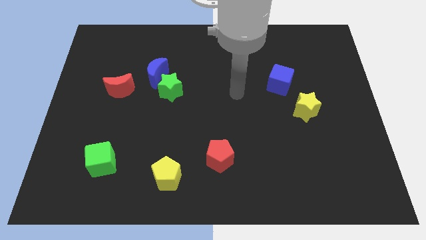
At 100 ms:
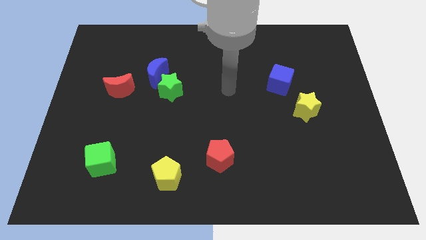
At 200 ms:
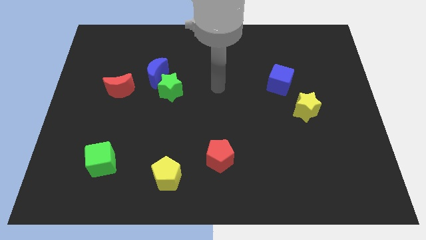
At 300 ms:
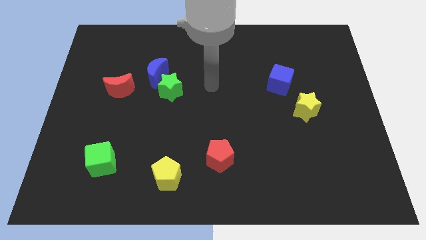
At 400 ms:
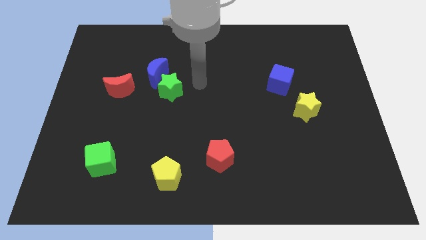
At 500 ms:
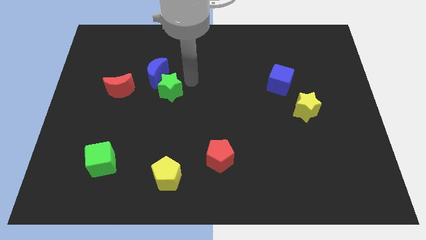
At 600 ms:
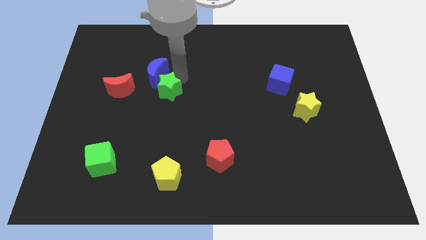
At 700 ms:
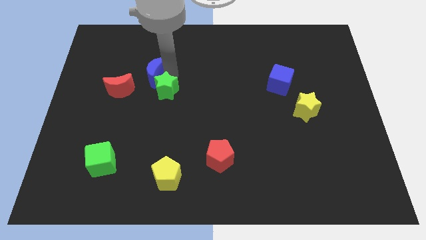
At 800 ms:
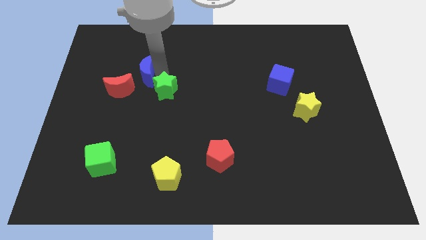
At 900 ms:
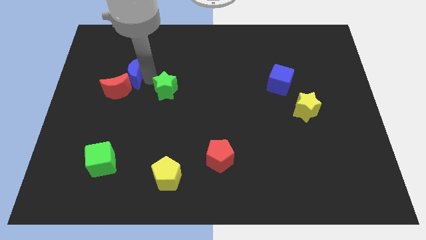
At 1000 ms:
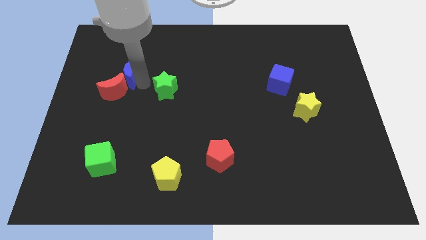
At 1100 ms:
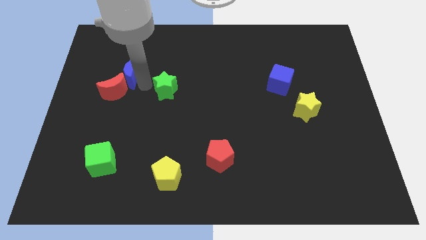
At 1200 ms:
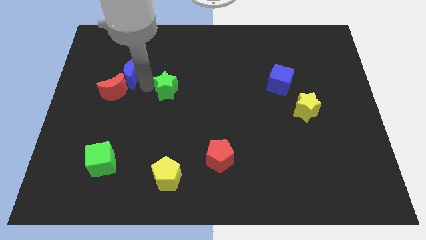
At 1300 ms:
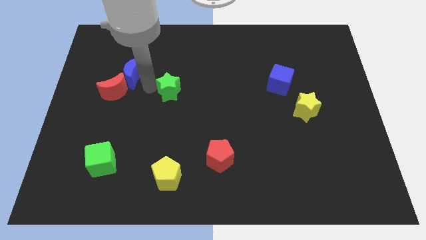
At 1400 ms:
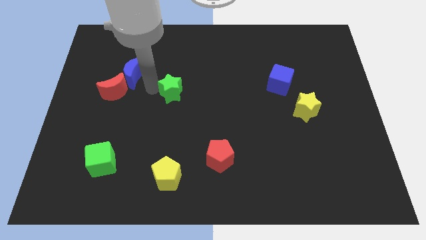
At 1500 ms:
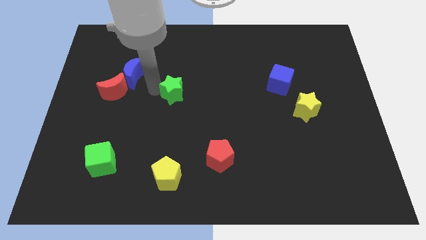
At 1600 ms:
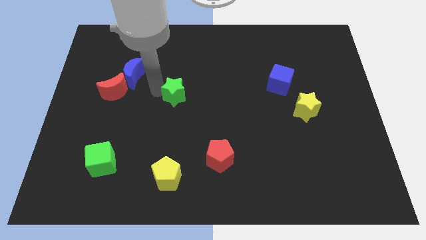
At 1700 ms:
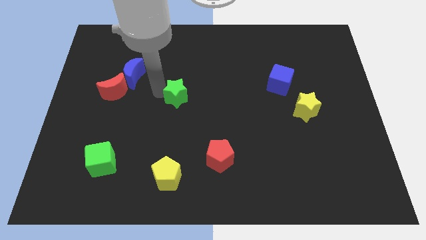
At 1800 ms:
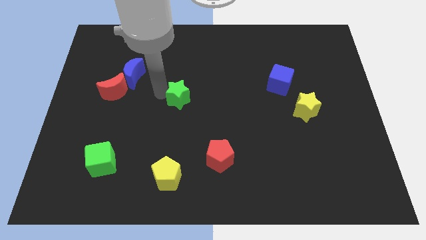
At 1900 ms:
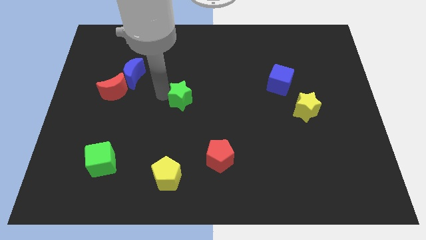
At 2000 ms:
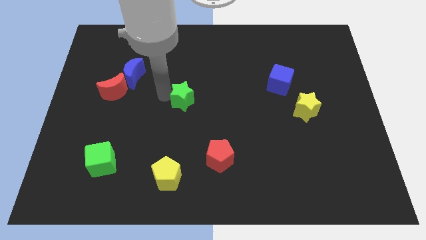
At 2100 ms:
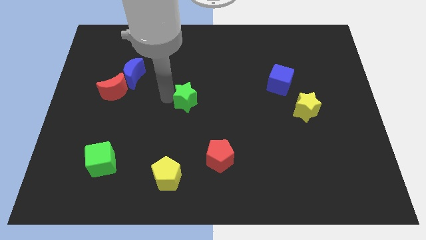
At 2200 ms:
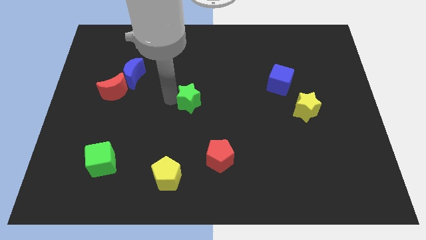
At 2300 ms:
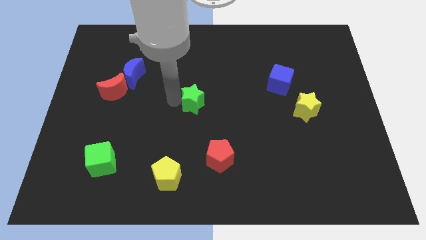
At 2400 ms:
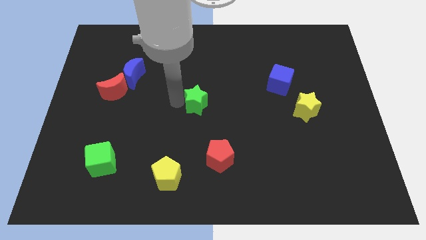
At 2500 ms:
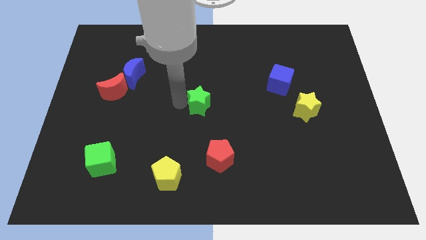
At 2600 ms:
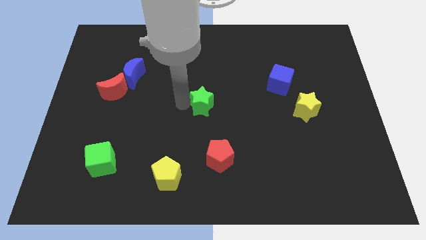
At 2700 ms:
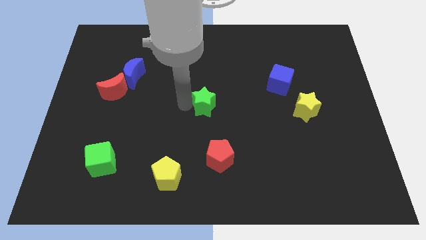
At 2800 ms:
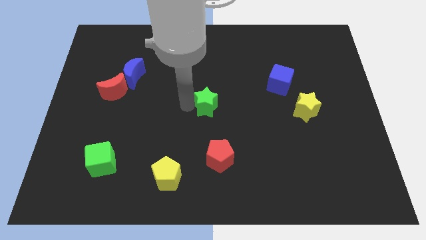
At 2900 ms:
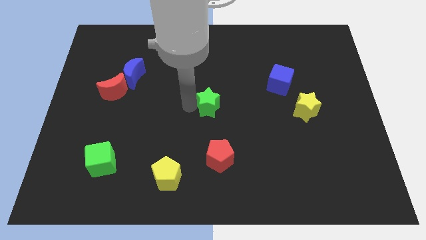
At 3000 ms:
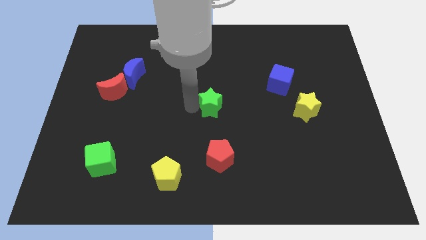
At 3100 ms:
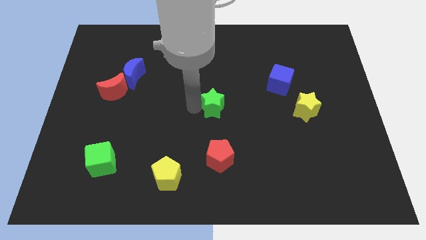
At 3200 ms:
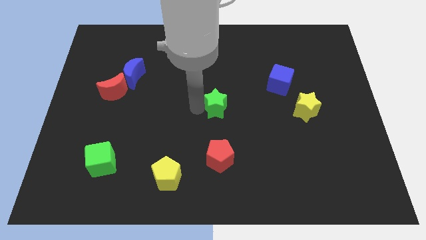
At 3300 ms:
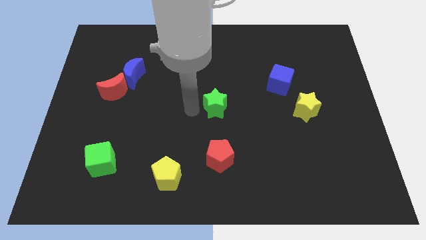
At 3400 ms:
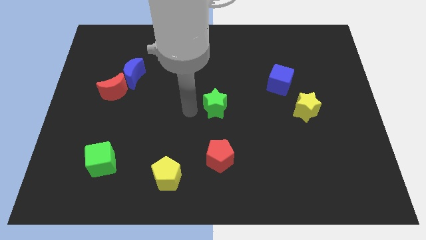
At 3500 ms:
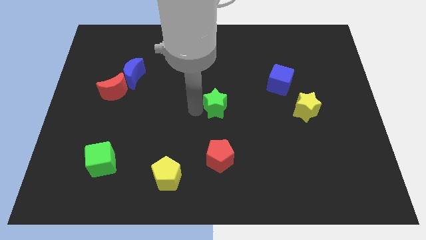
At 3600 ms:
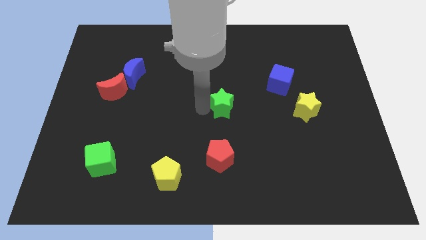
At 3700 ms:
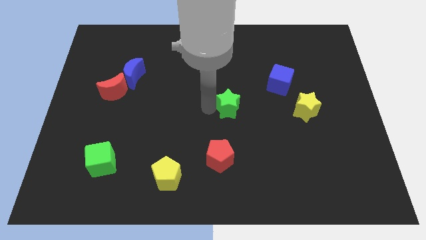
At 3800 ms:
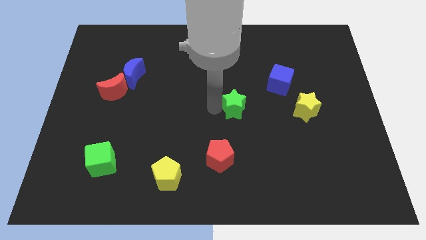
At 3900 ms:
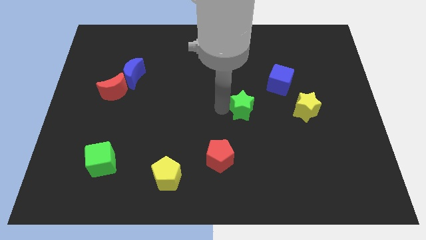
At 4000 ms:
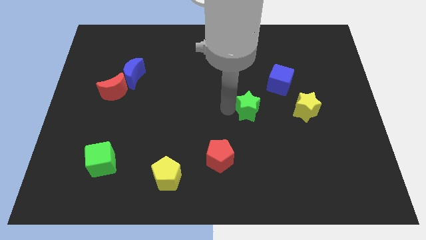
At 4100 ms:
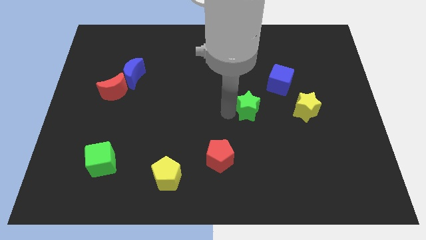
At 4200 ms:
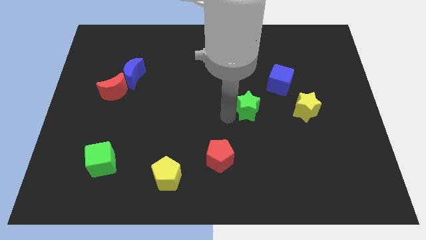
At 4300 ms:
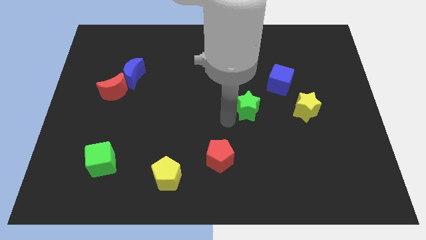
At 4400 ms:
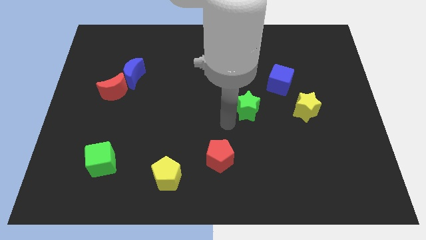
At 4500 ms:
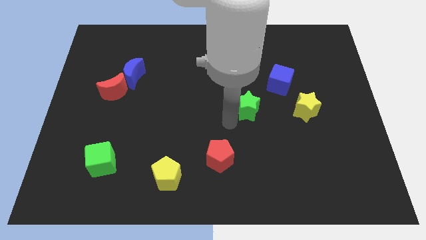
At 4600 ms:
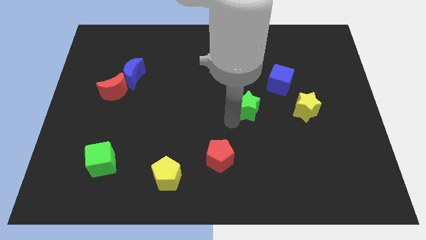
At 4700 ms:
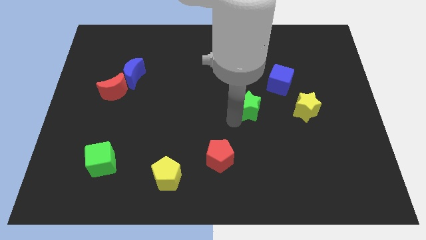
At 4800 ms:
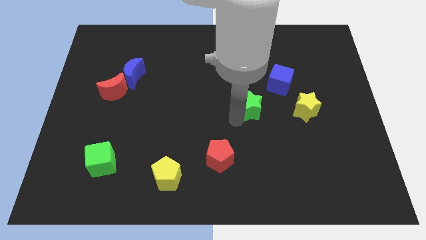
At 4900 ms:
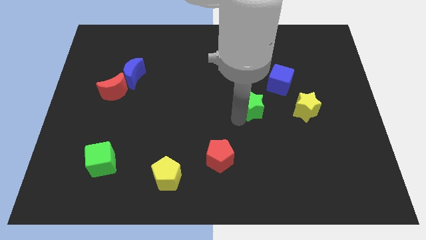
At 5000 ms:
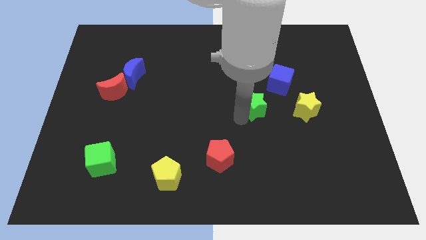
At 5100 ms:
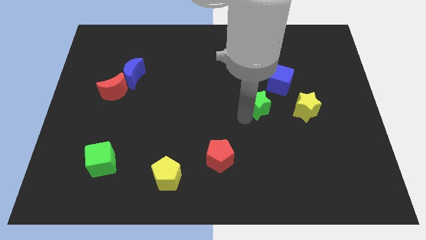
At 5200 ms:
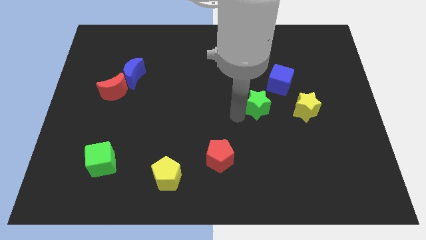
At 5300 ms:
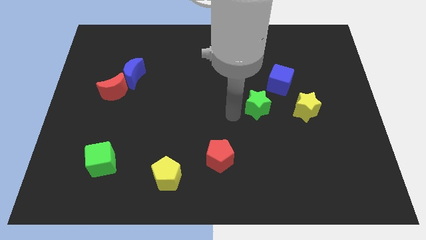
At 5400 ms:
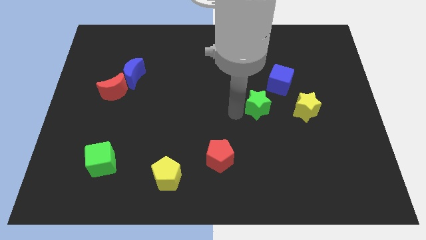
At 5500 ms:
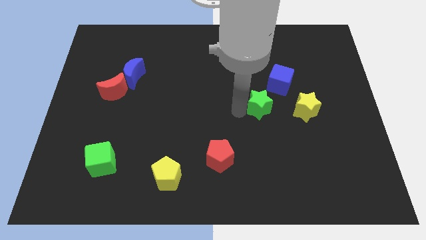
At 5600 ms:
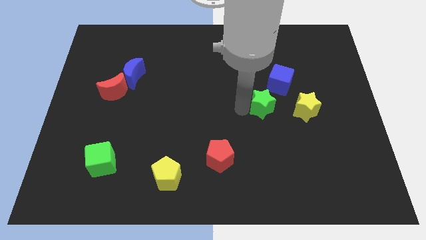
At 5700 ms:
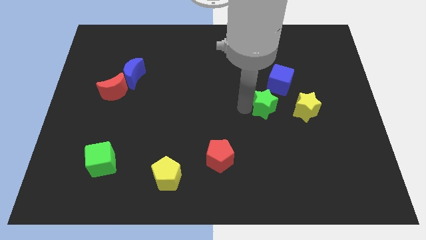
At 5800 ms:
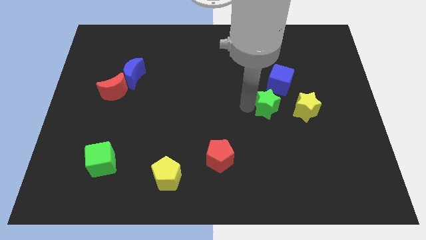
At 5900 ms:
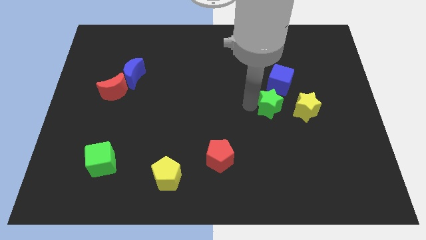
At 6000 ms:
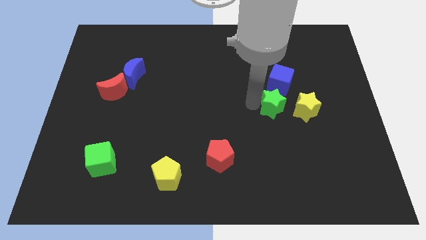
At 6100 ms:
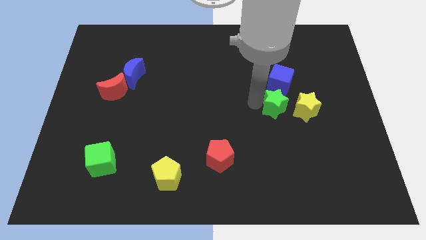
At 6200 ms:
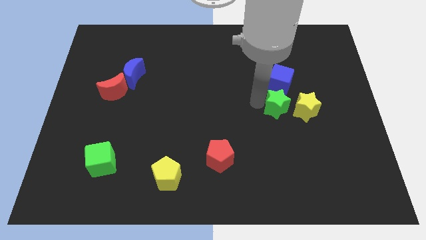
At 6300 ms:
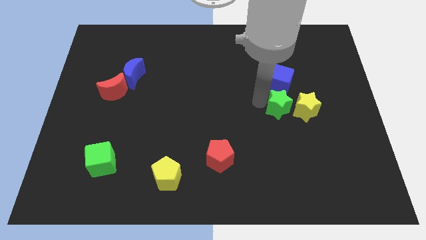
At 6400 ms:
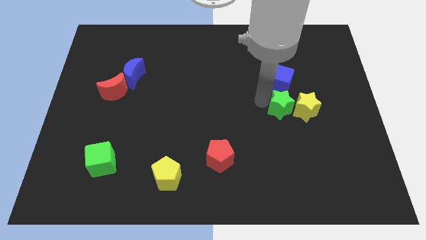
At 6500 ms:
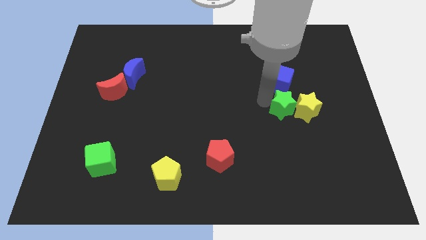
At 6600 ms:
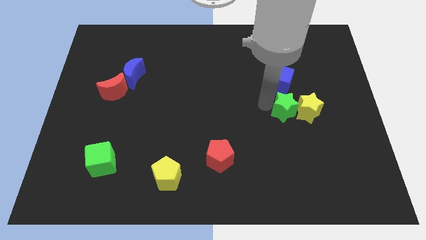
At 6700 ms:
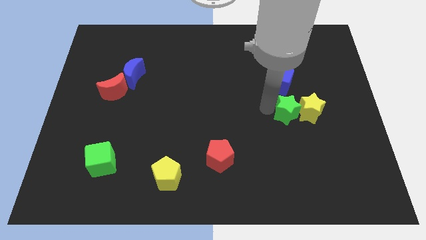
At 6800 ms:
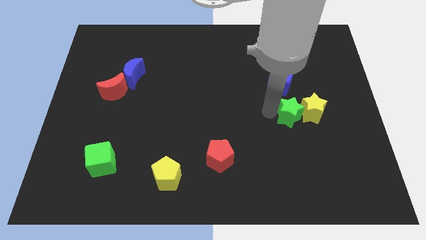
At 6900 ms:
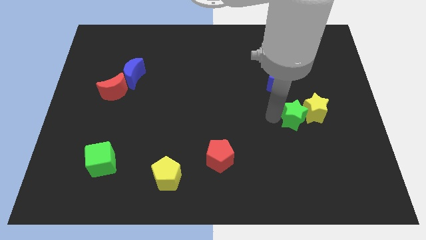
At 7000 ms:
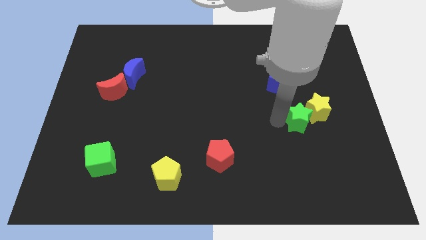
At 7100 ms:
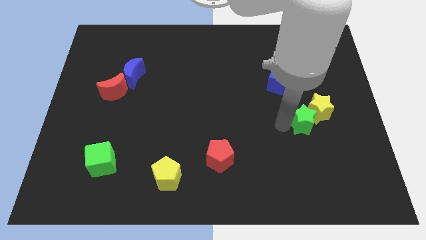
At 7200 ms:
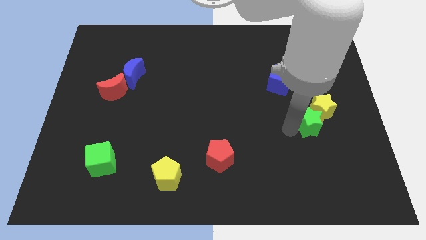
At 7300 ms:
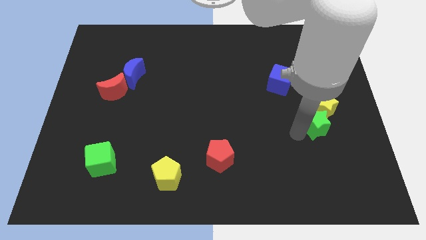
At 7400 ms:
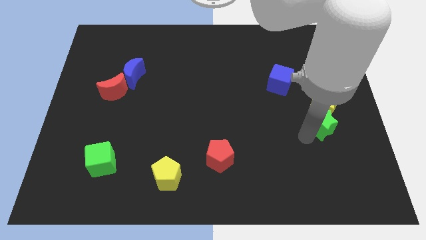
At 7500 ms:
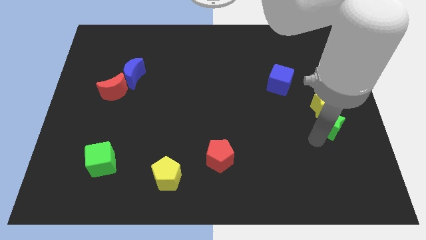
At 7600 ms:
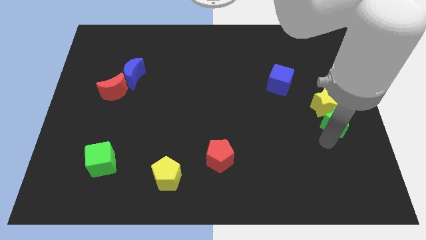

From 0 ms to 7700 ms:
move the green star to the right side
